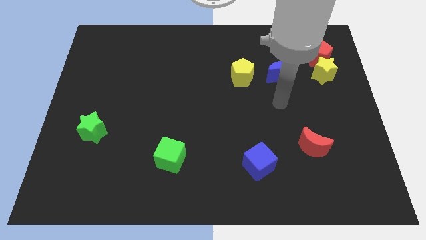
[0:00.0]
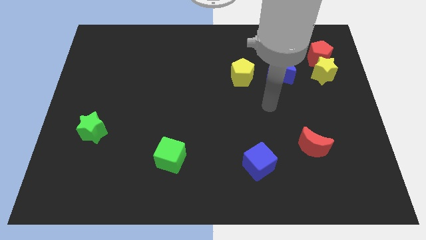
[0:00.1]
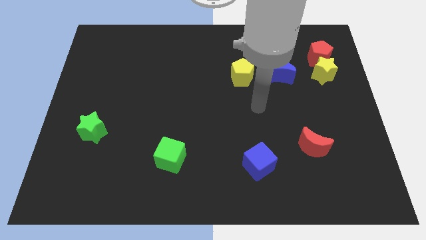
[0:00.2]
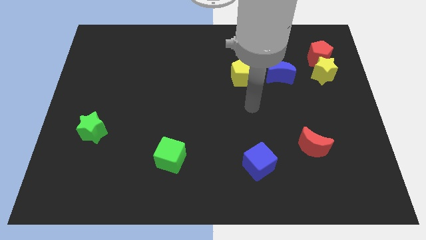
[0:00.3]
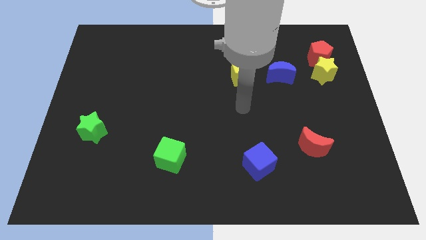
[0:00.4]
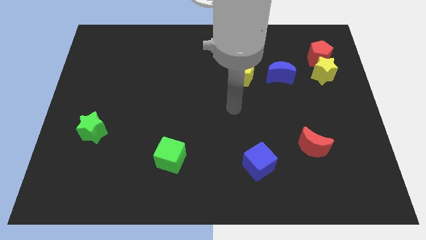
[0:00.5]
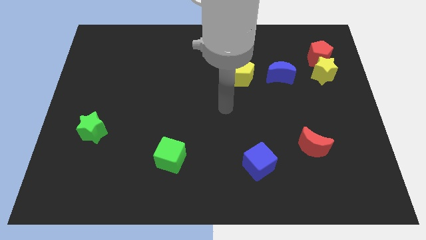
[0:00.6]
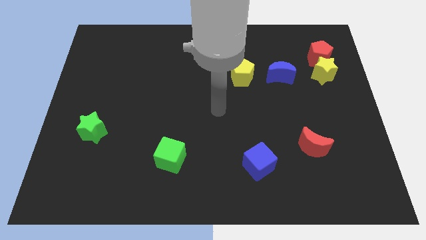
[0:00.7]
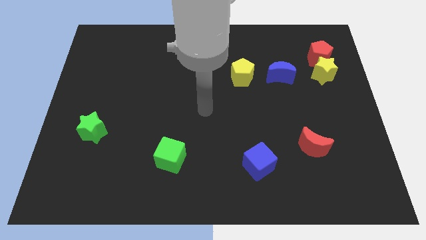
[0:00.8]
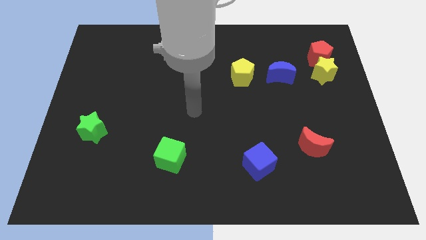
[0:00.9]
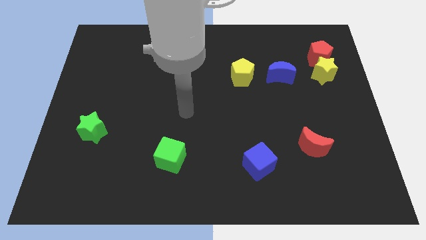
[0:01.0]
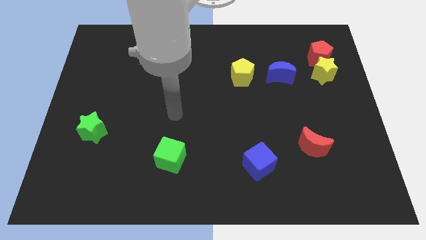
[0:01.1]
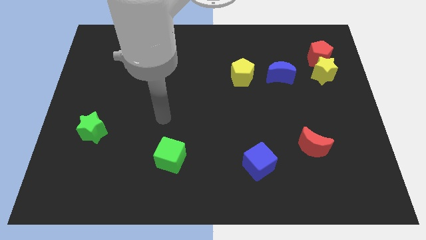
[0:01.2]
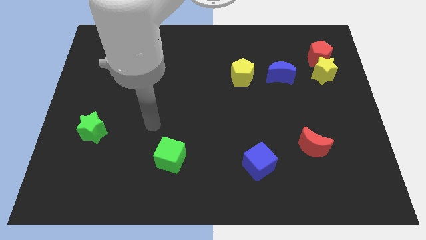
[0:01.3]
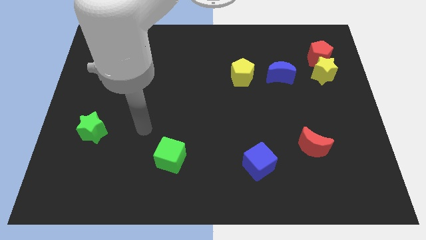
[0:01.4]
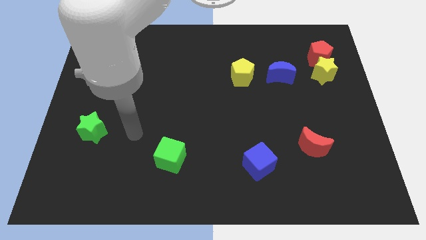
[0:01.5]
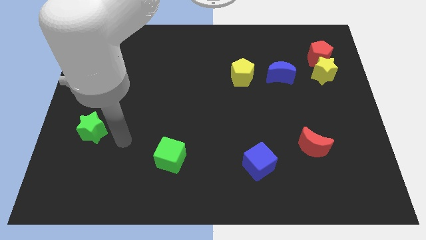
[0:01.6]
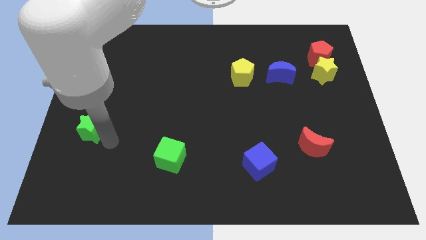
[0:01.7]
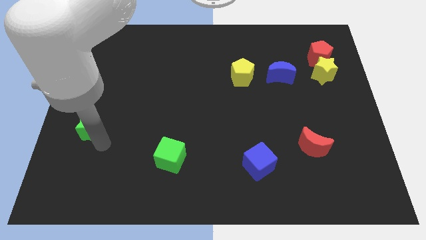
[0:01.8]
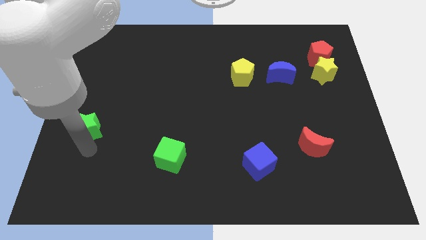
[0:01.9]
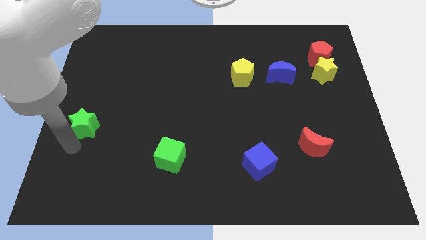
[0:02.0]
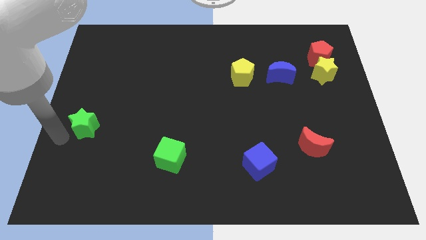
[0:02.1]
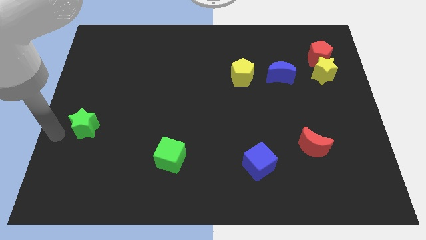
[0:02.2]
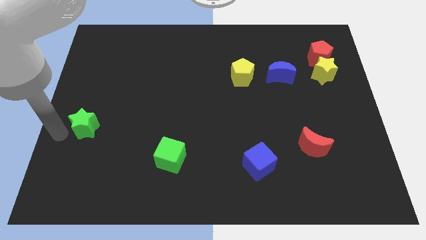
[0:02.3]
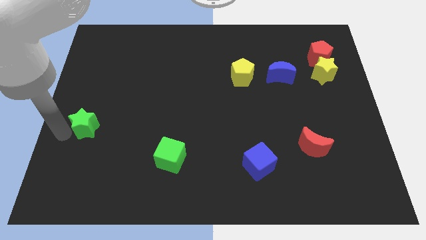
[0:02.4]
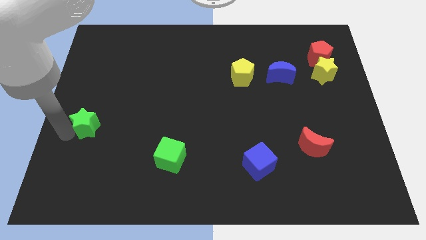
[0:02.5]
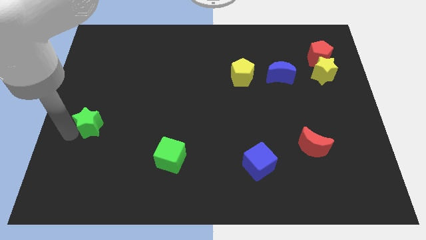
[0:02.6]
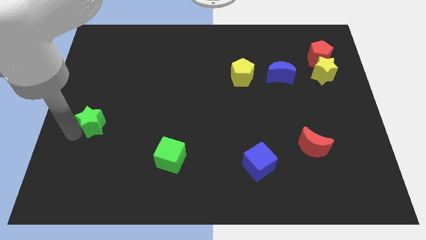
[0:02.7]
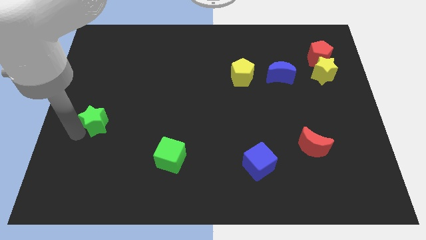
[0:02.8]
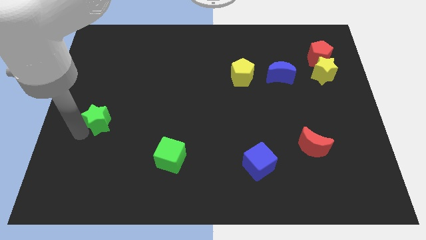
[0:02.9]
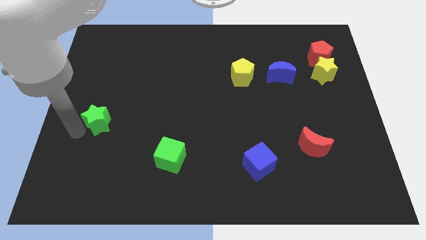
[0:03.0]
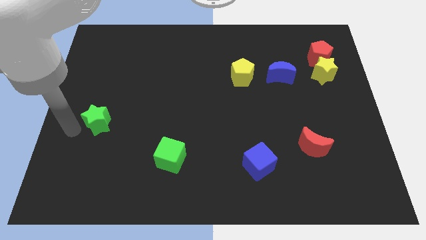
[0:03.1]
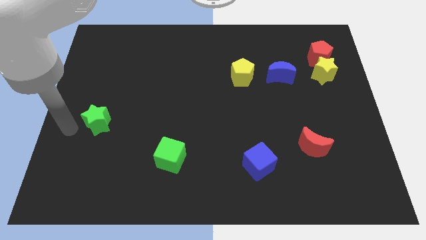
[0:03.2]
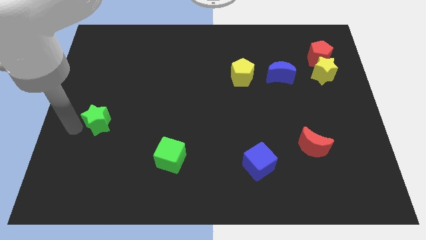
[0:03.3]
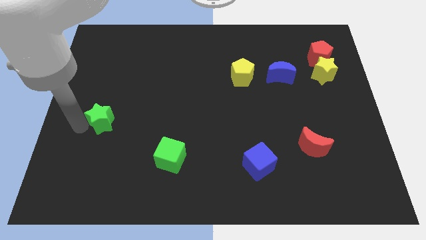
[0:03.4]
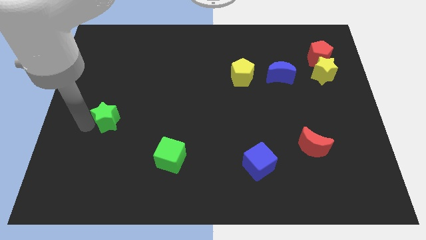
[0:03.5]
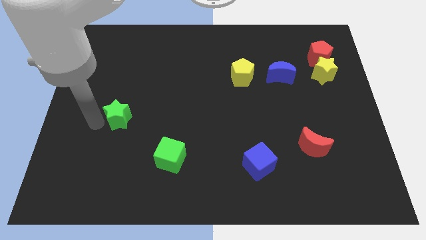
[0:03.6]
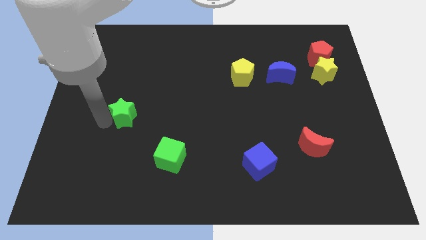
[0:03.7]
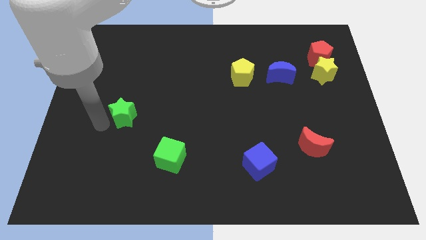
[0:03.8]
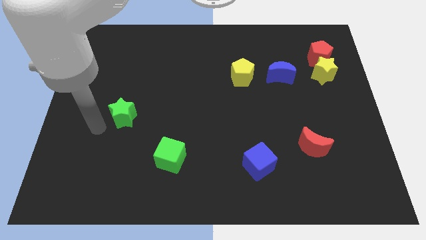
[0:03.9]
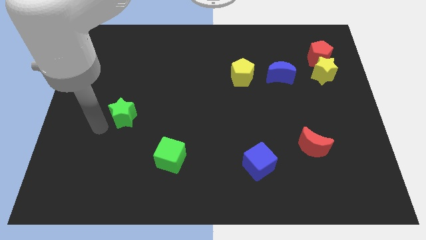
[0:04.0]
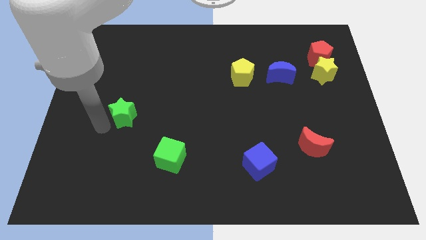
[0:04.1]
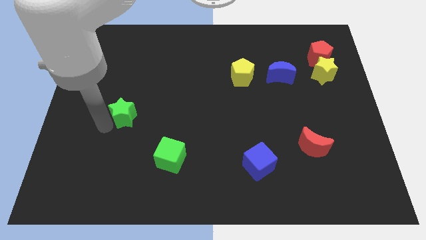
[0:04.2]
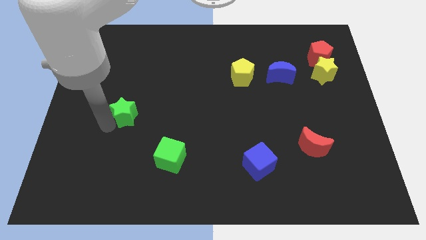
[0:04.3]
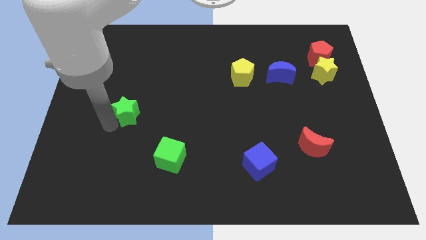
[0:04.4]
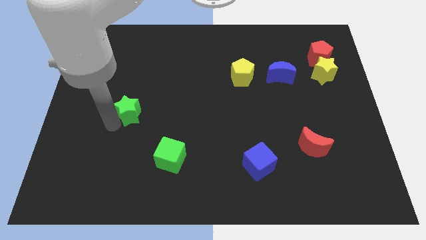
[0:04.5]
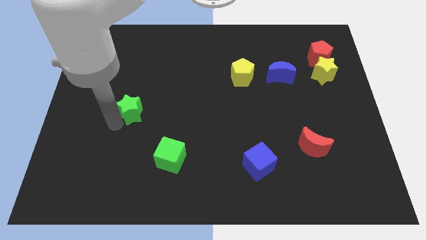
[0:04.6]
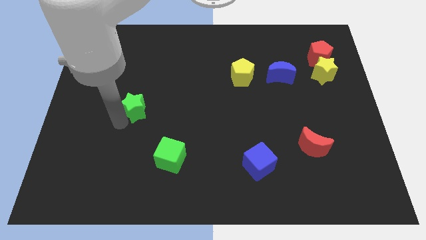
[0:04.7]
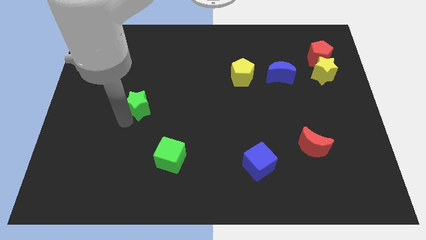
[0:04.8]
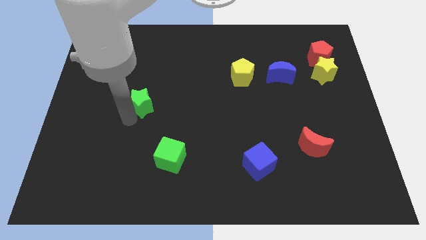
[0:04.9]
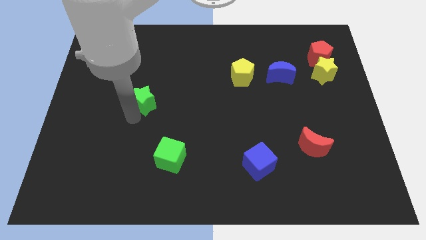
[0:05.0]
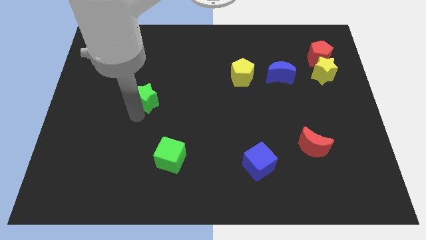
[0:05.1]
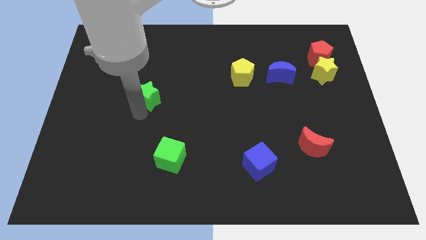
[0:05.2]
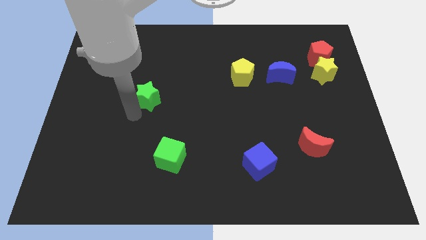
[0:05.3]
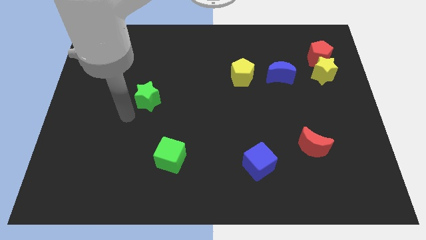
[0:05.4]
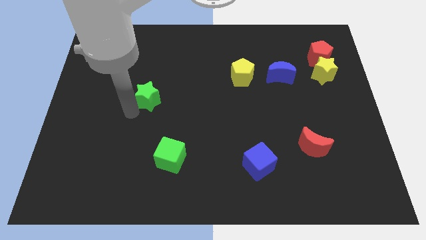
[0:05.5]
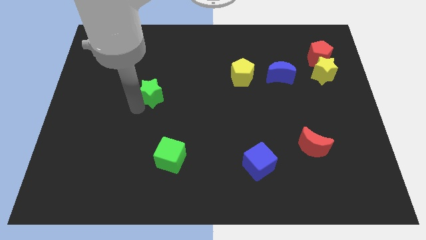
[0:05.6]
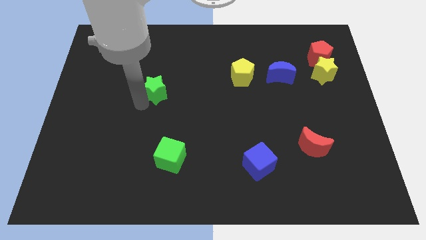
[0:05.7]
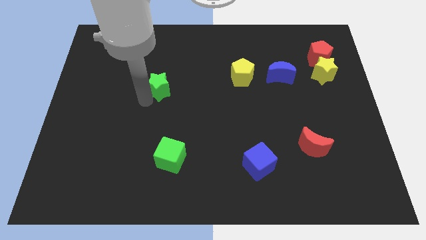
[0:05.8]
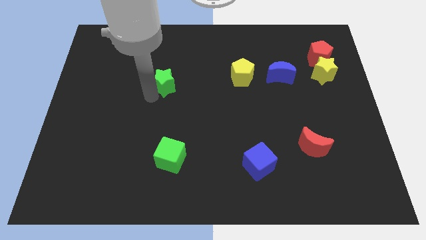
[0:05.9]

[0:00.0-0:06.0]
move the green star up and to the right diagonally

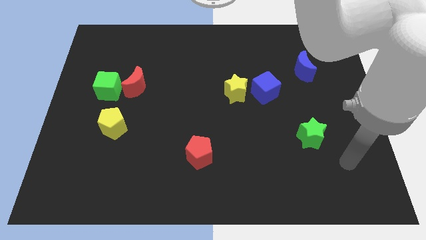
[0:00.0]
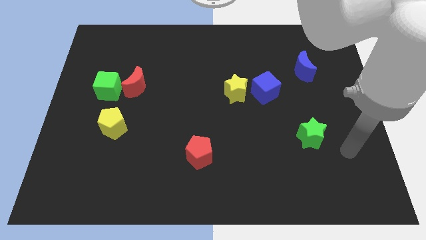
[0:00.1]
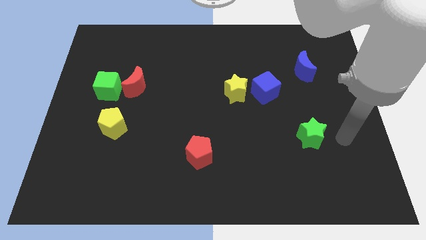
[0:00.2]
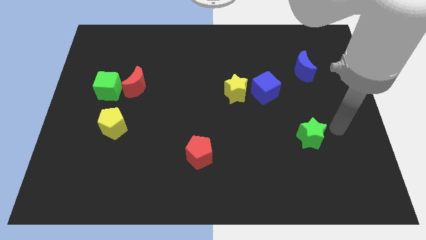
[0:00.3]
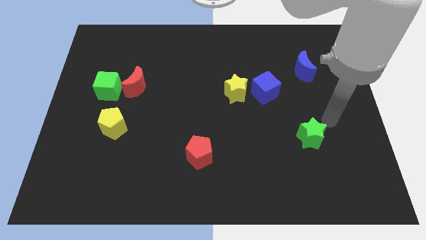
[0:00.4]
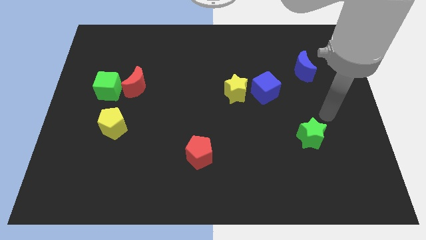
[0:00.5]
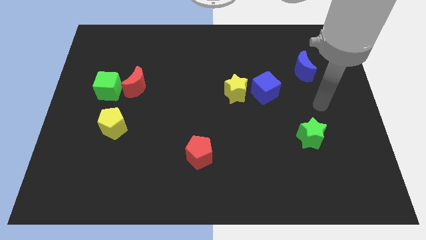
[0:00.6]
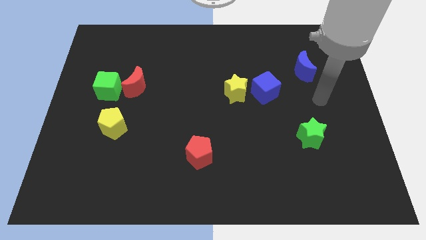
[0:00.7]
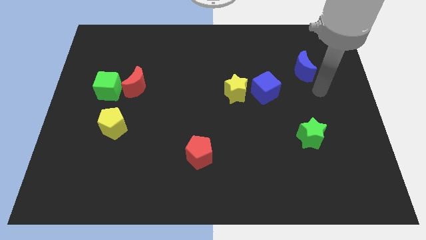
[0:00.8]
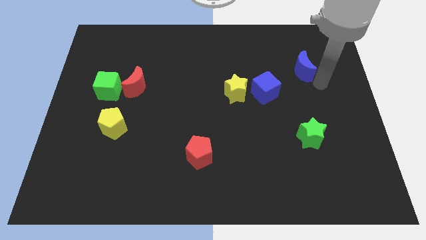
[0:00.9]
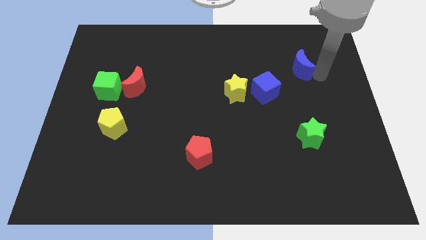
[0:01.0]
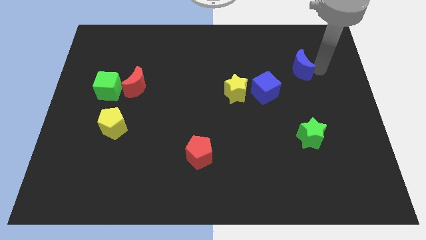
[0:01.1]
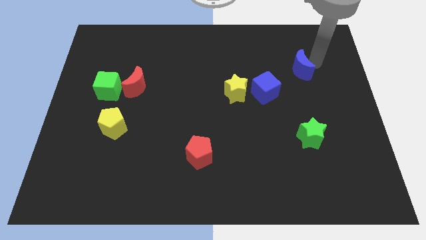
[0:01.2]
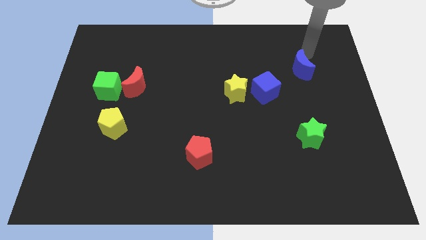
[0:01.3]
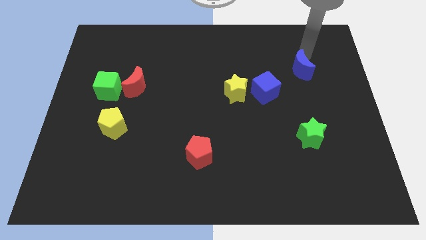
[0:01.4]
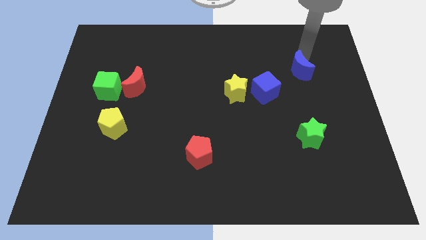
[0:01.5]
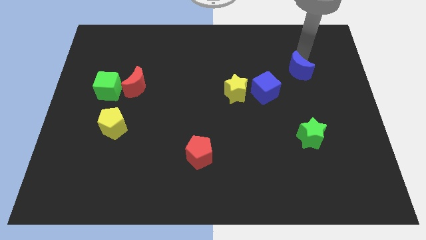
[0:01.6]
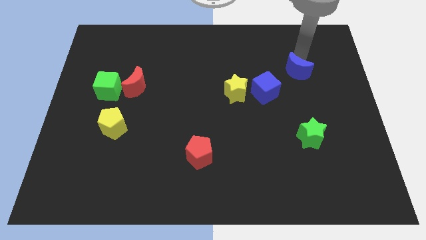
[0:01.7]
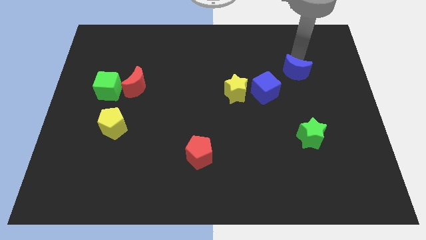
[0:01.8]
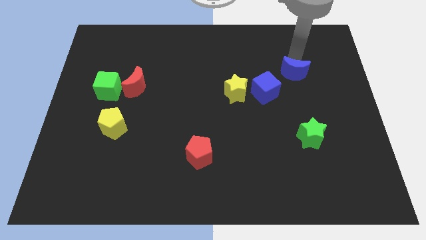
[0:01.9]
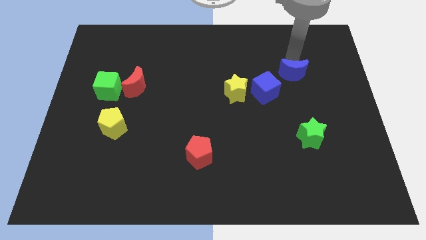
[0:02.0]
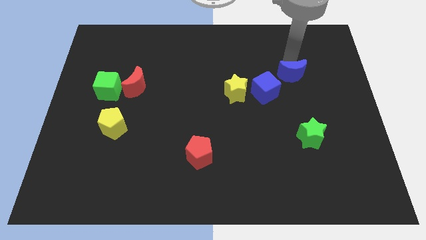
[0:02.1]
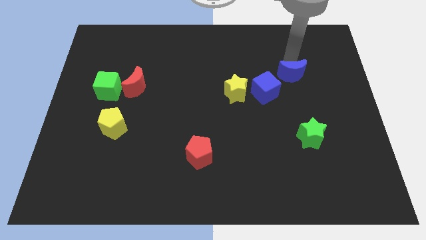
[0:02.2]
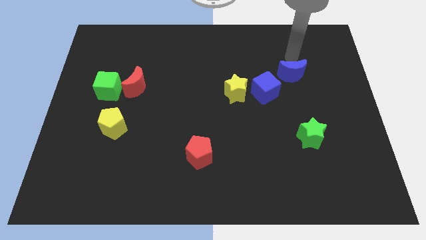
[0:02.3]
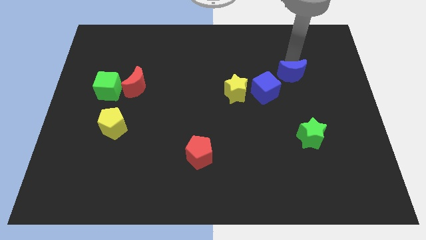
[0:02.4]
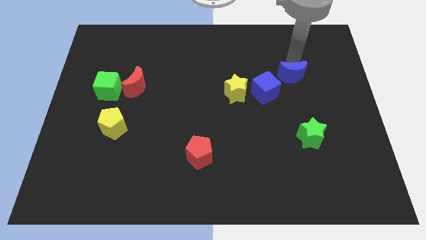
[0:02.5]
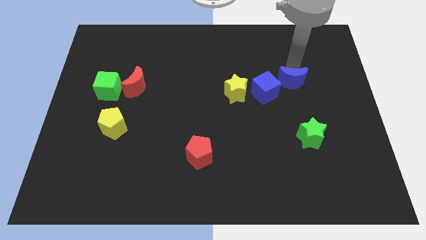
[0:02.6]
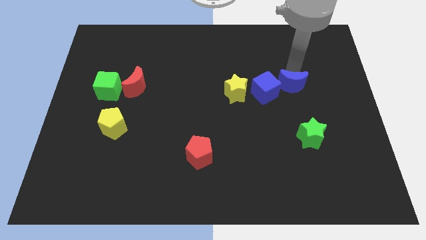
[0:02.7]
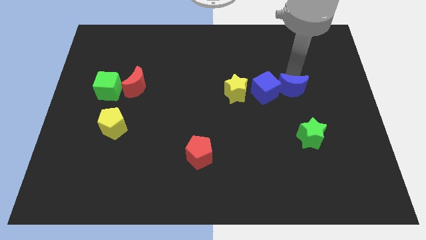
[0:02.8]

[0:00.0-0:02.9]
slightly push the blue moon diagonally down and to the left
